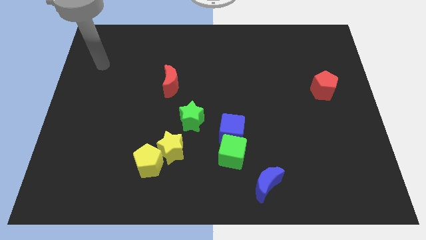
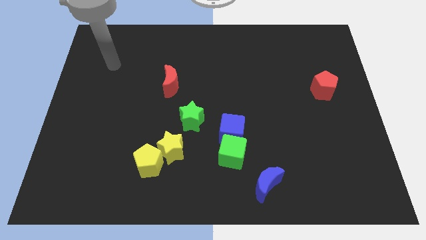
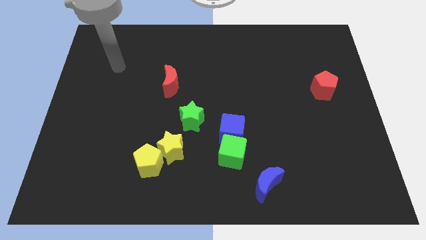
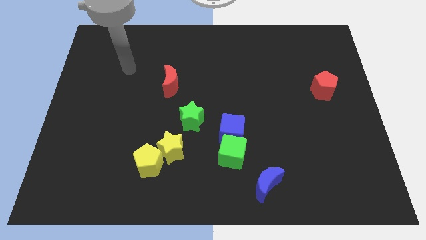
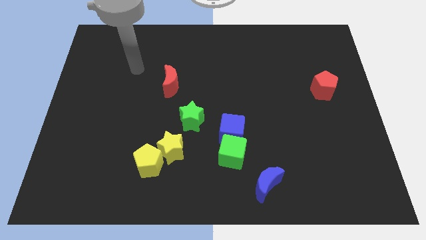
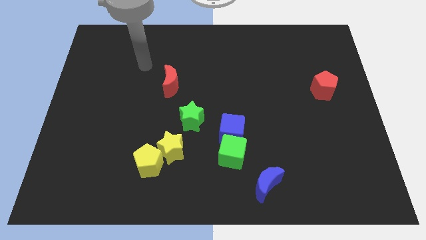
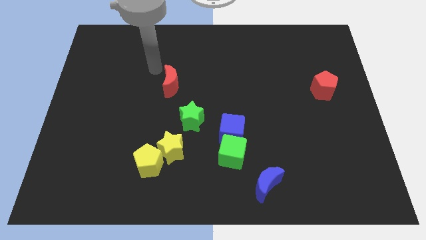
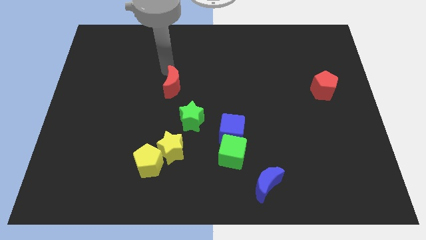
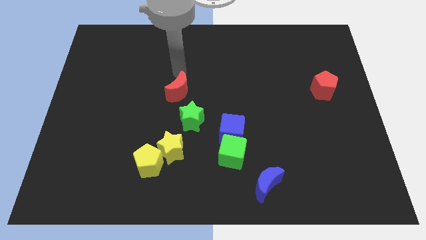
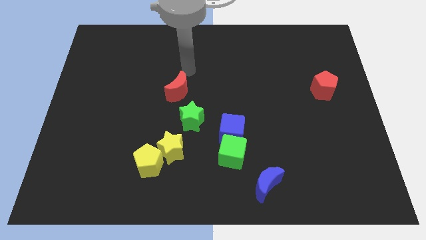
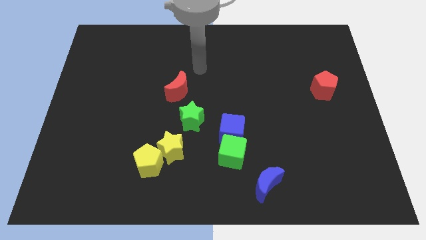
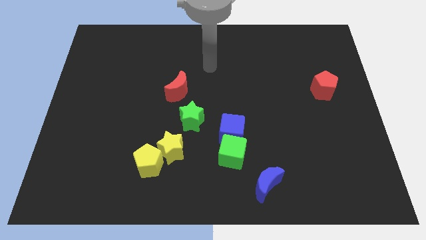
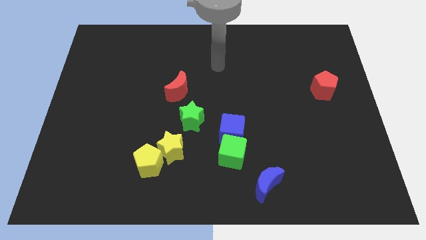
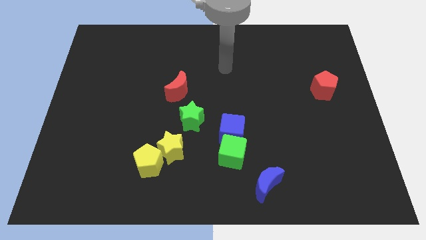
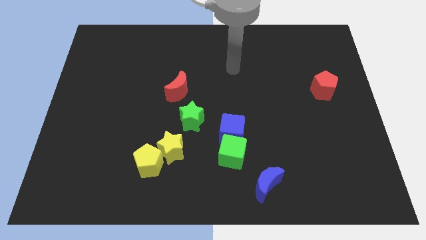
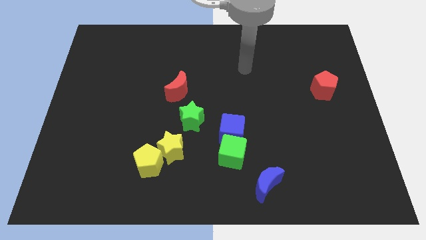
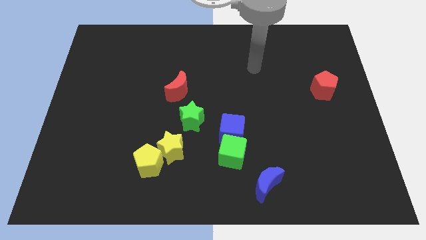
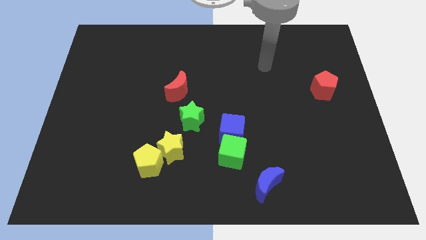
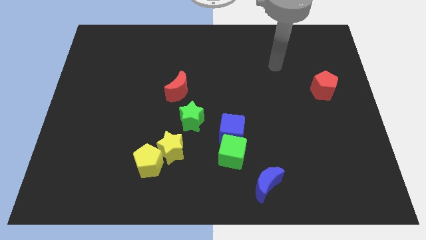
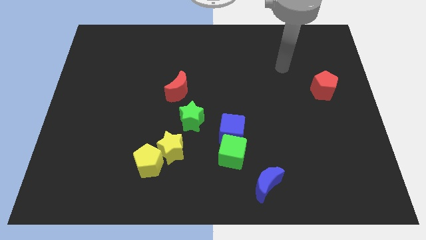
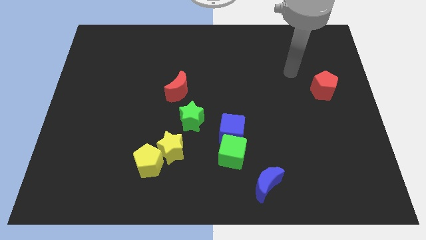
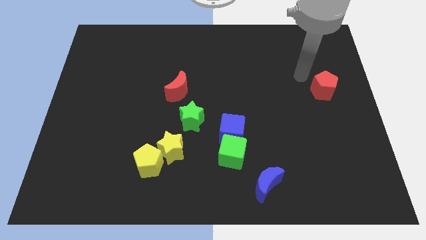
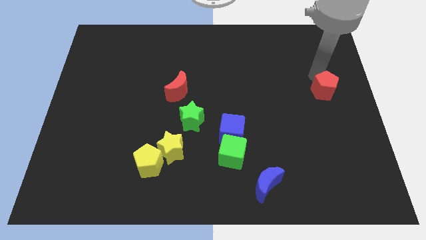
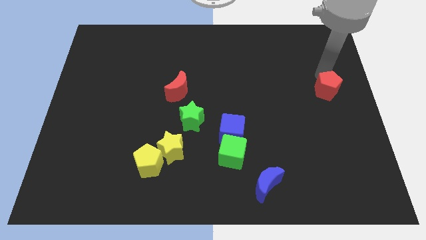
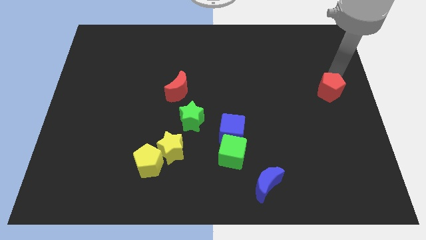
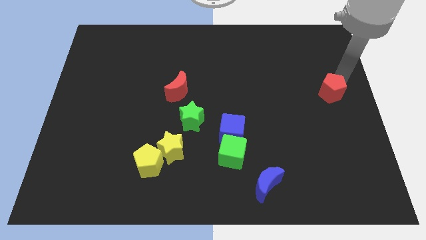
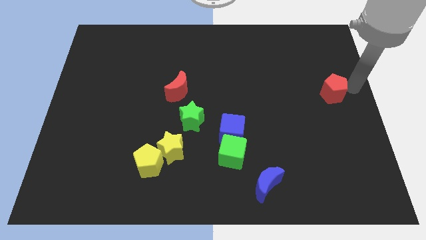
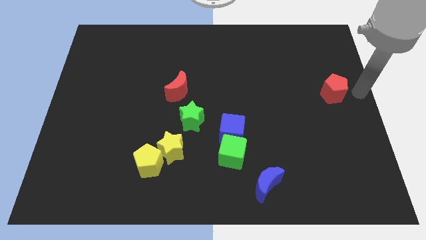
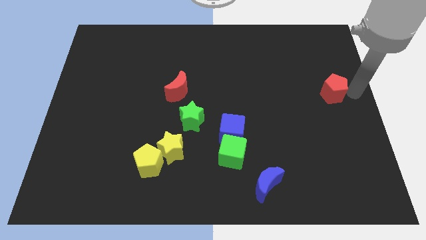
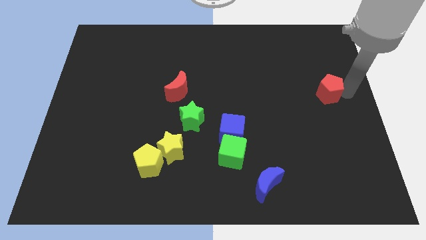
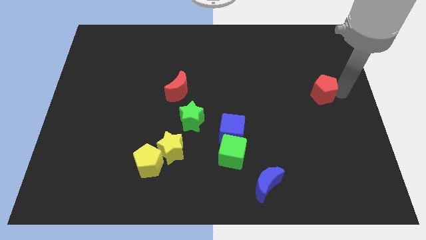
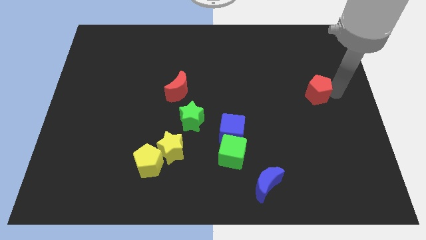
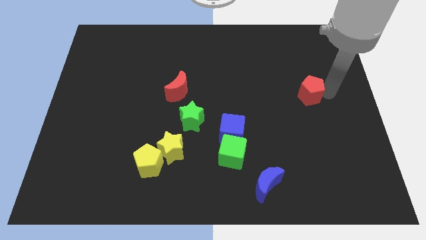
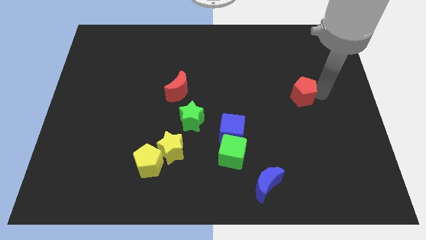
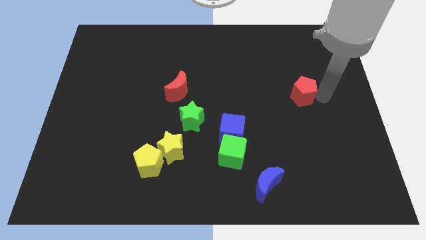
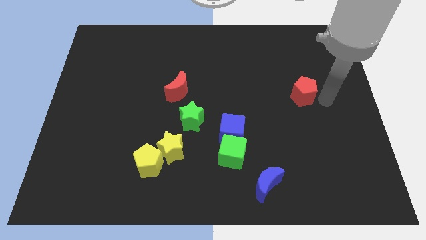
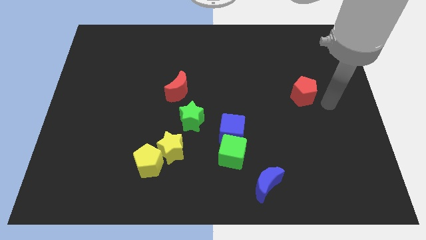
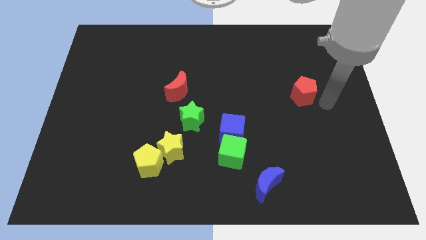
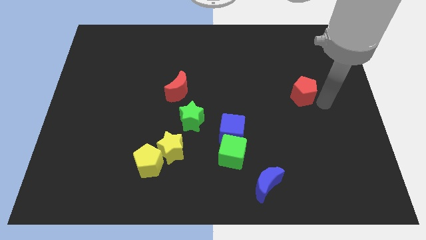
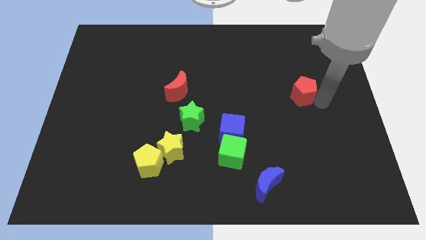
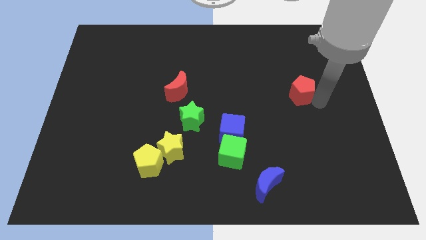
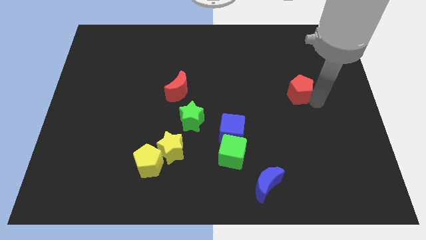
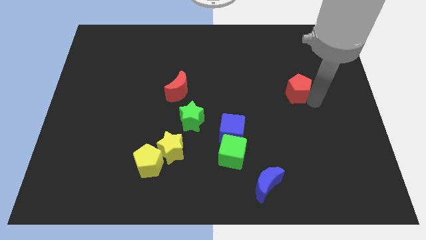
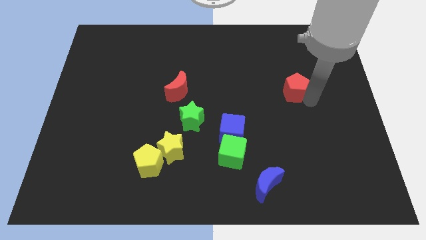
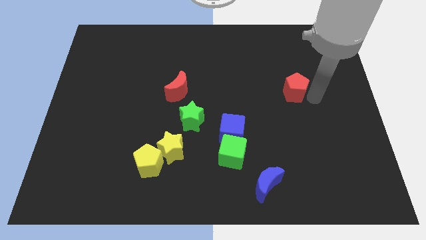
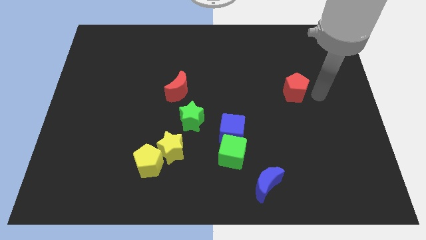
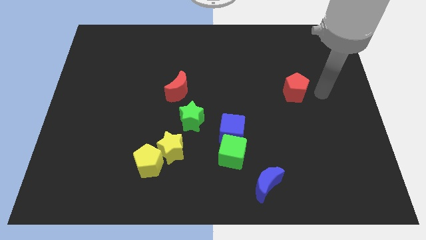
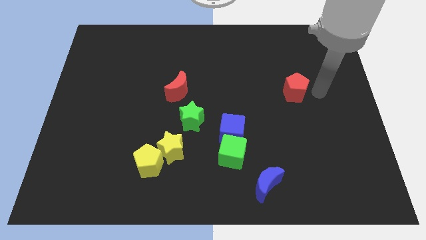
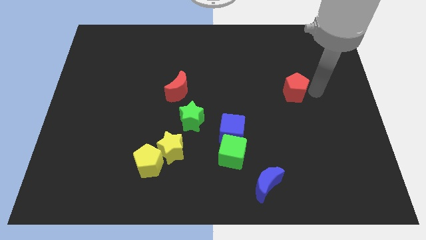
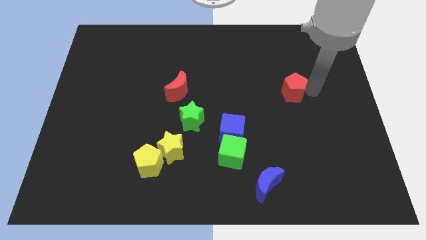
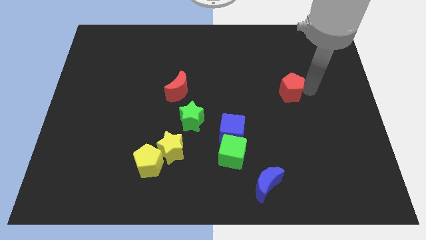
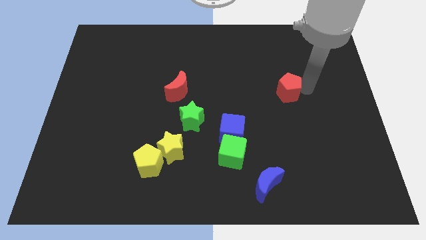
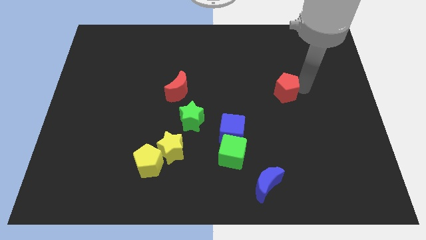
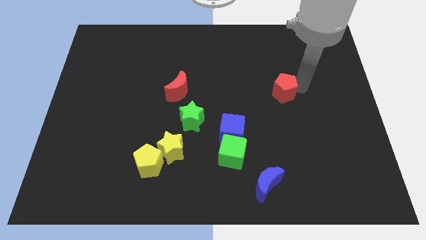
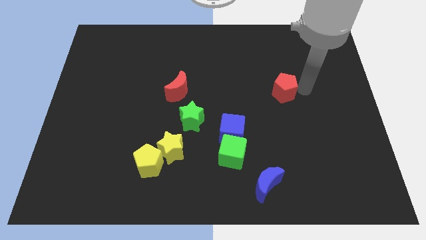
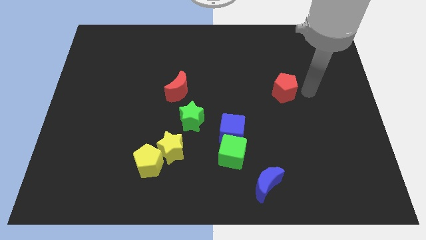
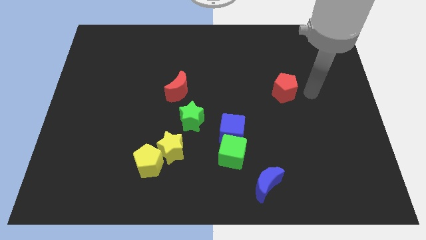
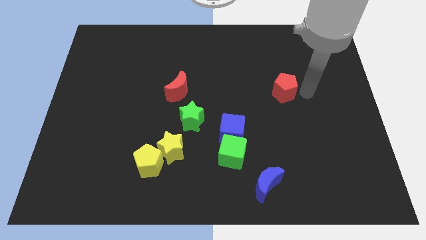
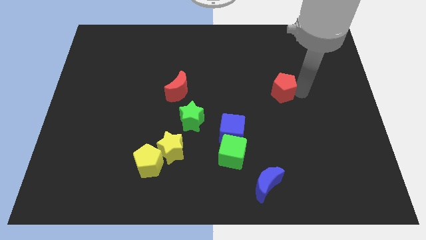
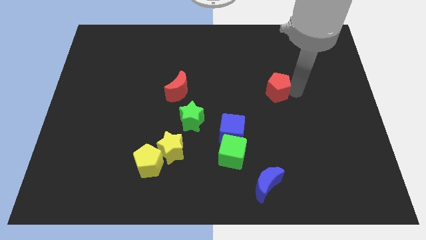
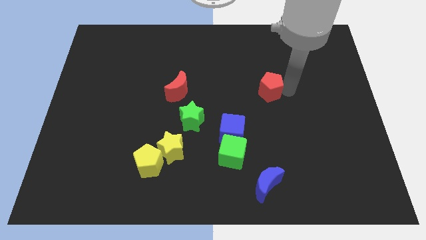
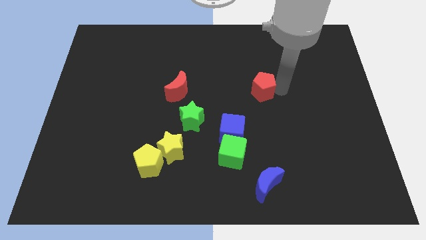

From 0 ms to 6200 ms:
put the red pentagon to the middle of the board
